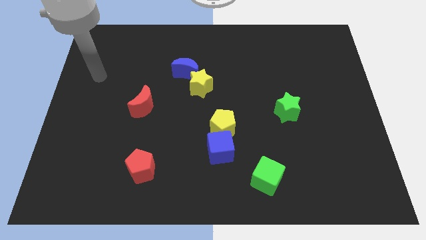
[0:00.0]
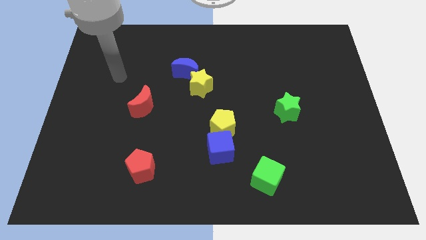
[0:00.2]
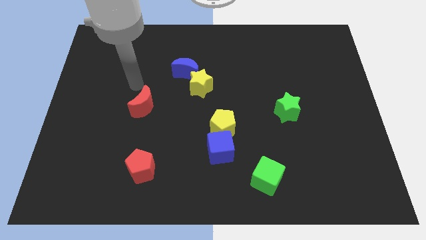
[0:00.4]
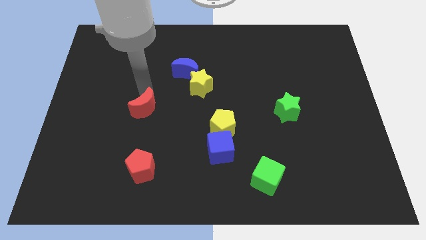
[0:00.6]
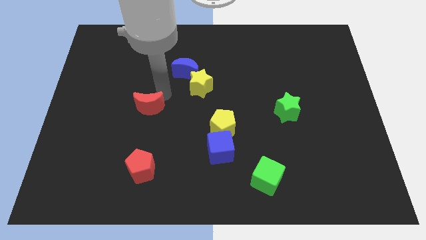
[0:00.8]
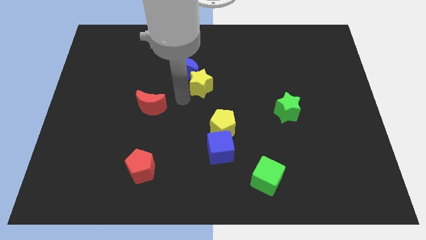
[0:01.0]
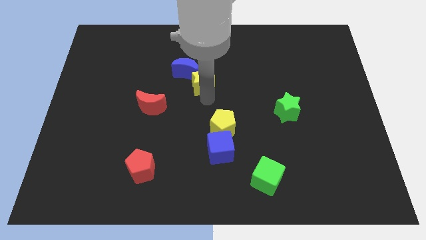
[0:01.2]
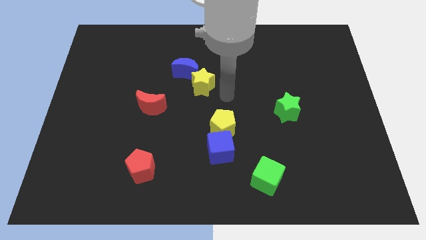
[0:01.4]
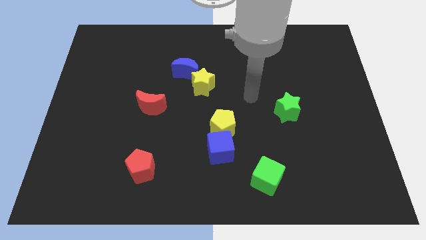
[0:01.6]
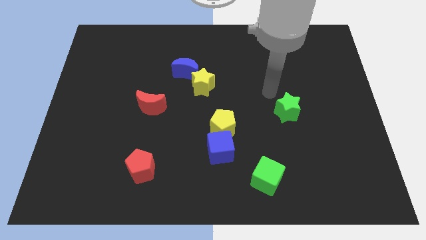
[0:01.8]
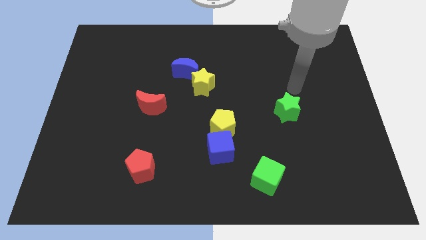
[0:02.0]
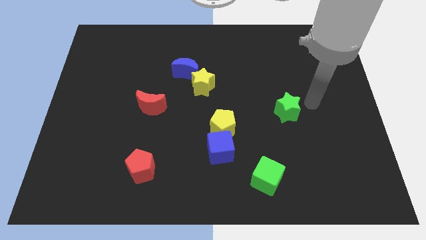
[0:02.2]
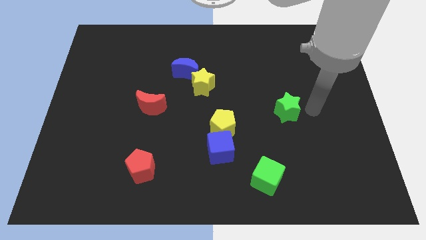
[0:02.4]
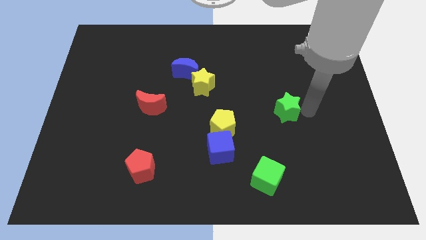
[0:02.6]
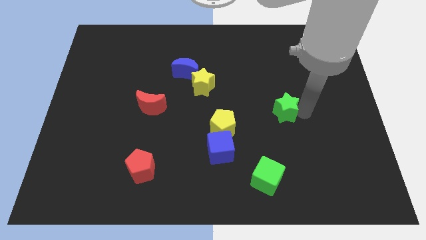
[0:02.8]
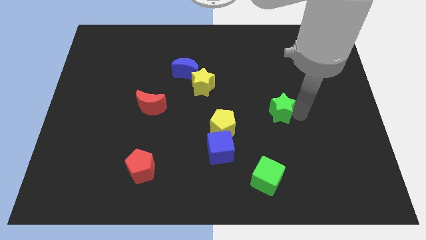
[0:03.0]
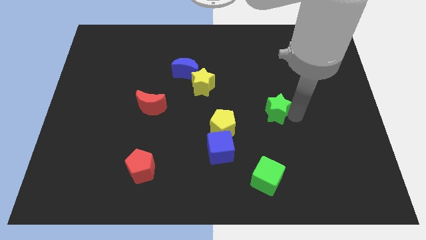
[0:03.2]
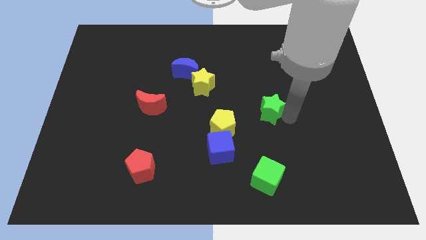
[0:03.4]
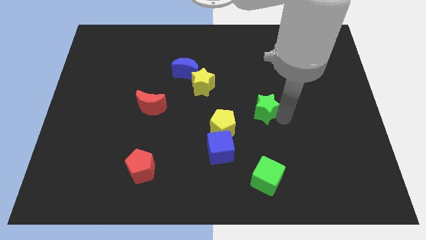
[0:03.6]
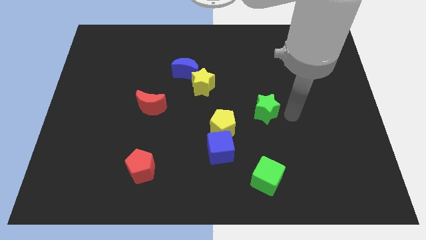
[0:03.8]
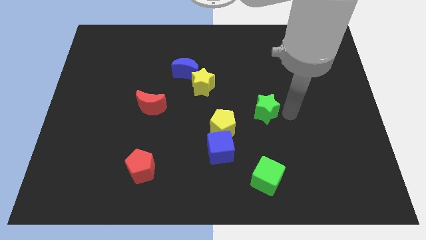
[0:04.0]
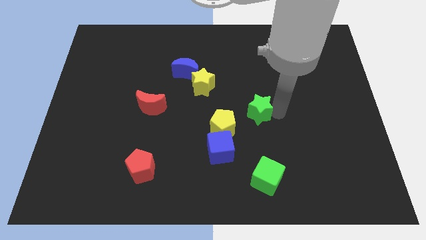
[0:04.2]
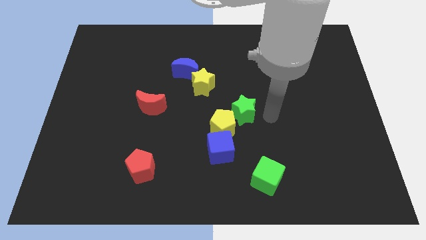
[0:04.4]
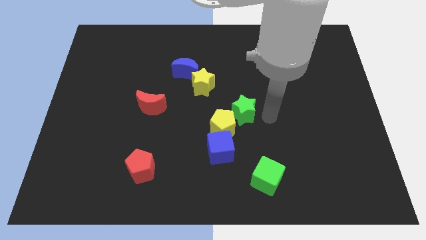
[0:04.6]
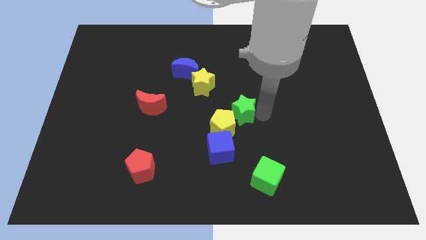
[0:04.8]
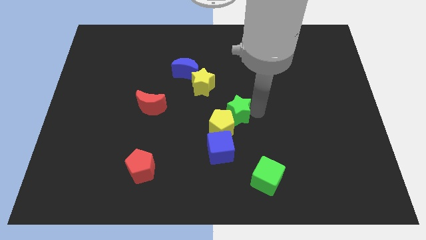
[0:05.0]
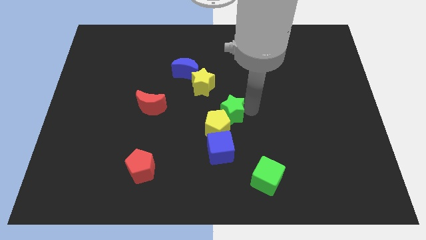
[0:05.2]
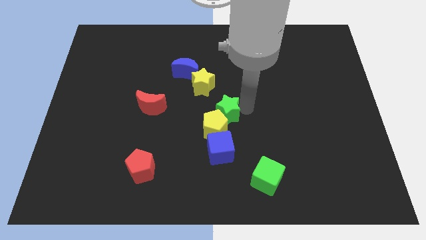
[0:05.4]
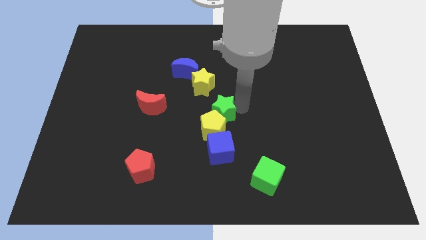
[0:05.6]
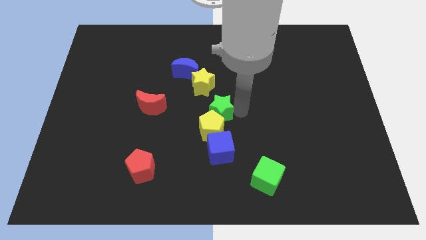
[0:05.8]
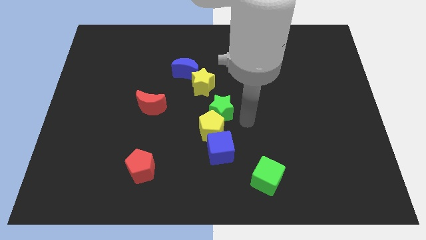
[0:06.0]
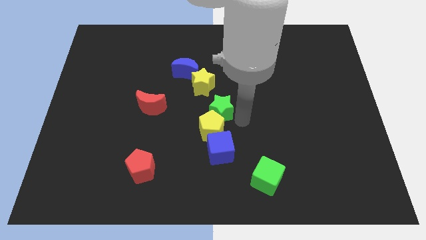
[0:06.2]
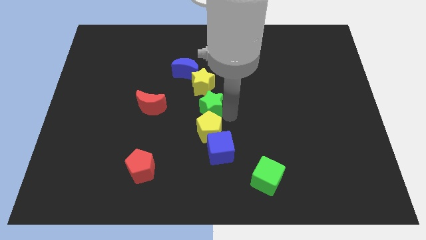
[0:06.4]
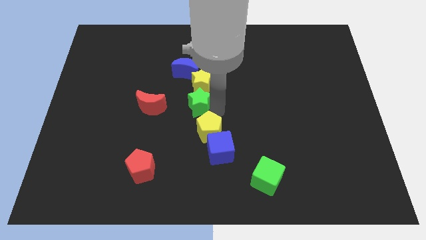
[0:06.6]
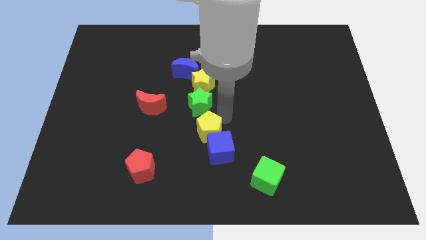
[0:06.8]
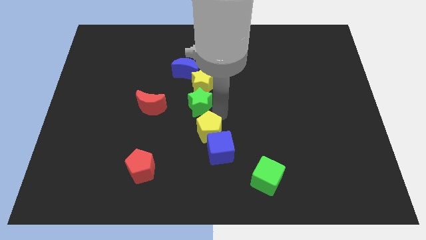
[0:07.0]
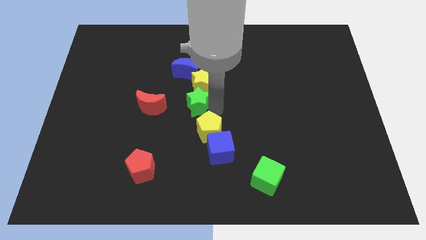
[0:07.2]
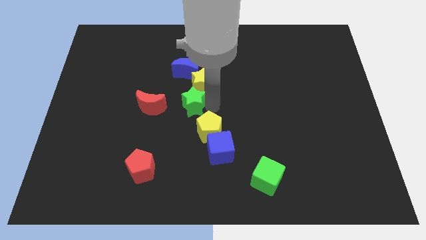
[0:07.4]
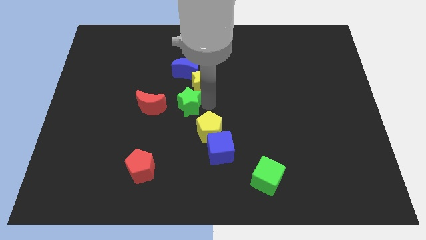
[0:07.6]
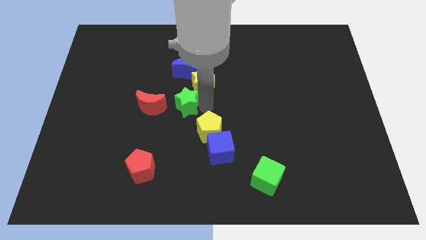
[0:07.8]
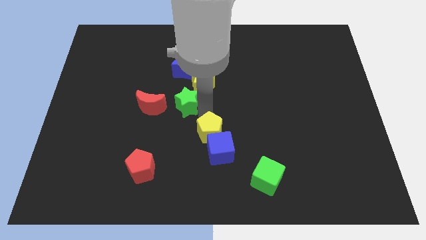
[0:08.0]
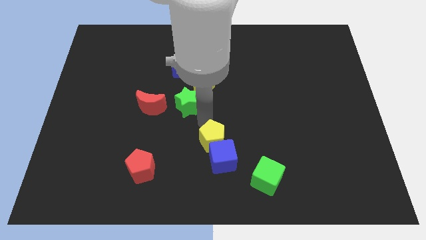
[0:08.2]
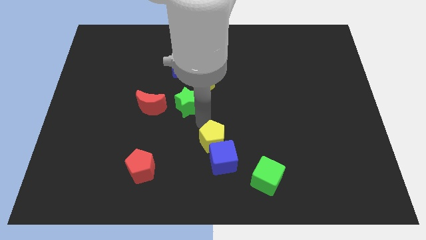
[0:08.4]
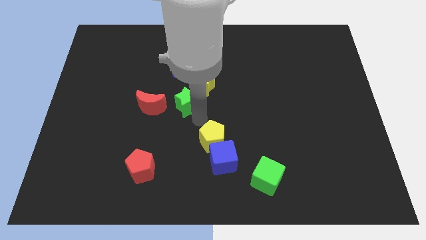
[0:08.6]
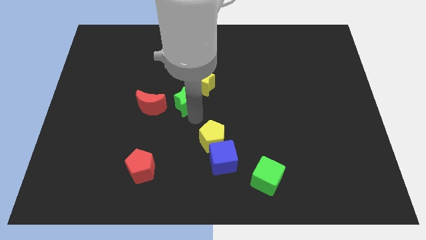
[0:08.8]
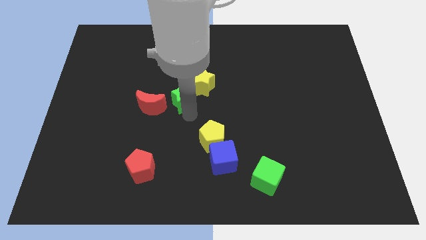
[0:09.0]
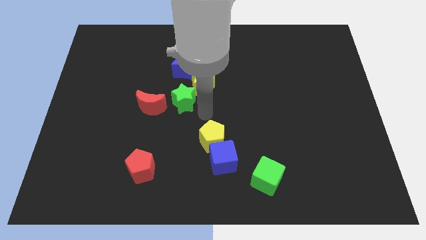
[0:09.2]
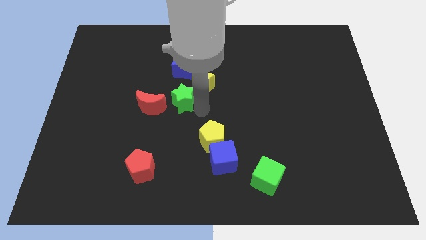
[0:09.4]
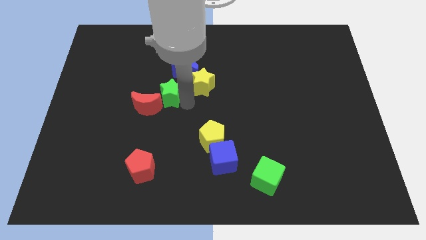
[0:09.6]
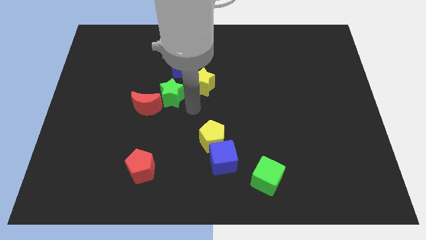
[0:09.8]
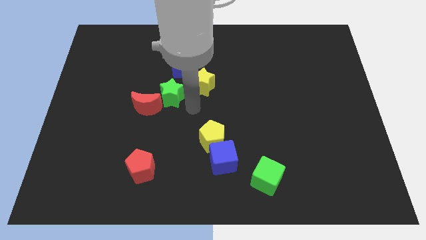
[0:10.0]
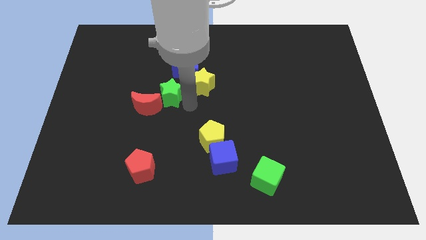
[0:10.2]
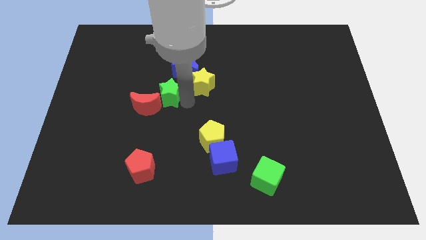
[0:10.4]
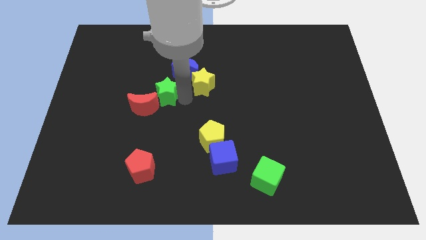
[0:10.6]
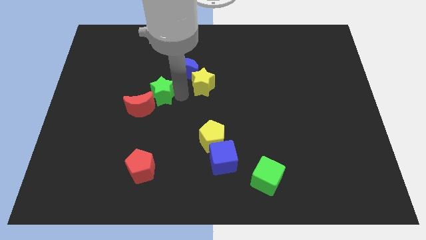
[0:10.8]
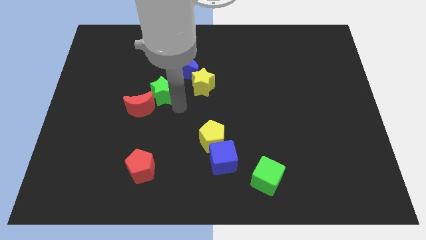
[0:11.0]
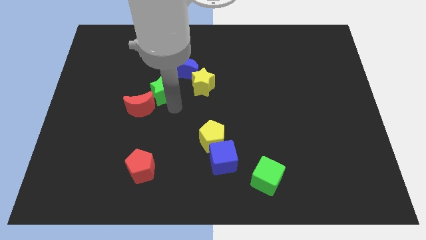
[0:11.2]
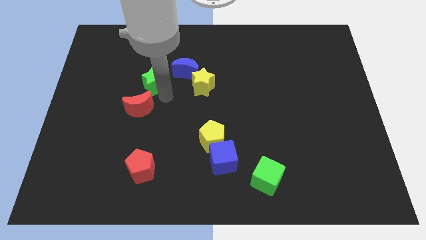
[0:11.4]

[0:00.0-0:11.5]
slide the green star to the left of the blue moon

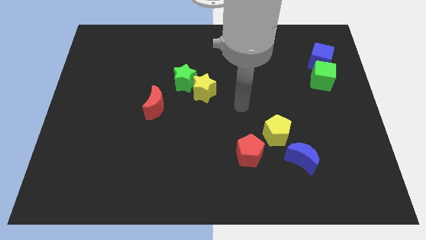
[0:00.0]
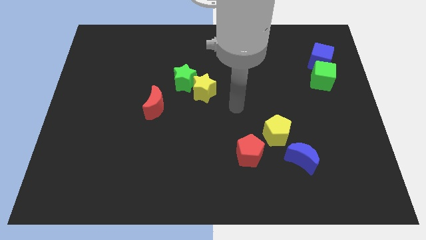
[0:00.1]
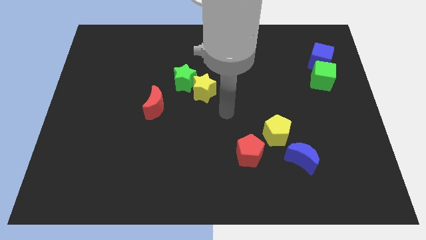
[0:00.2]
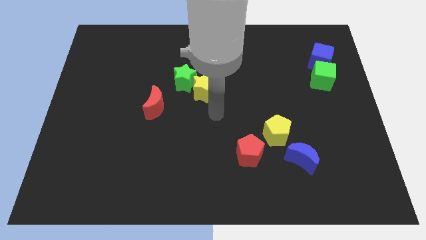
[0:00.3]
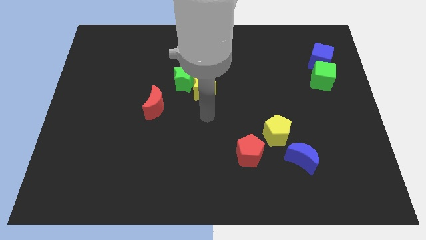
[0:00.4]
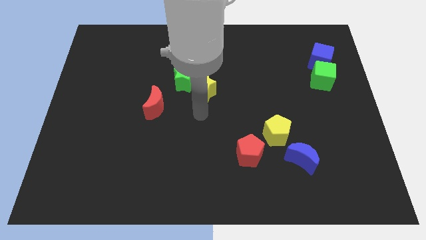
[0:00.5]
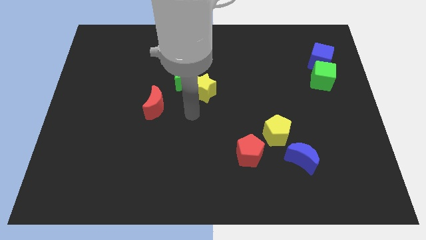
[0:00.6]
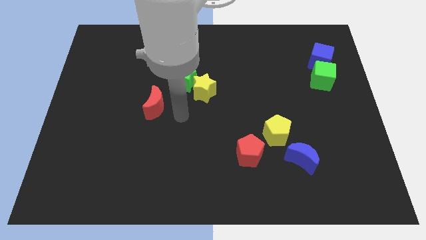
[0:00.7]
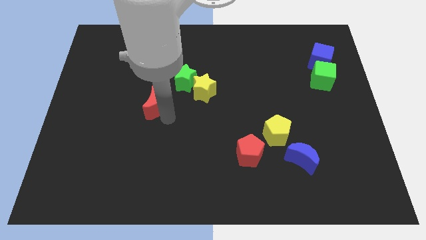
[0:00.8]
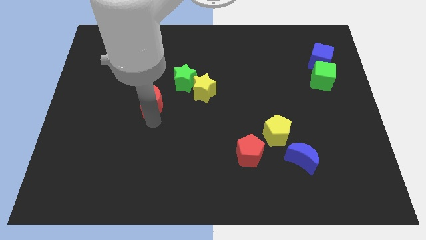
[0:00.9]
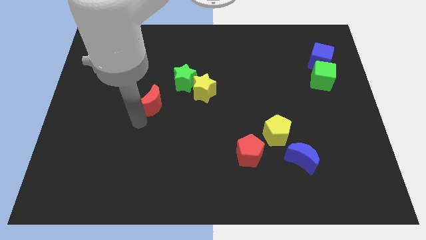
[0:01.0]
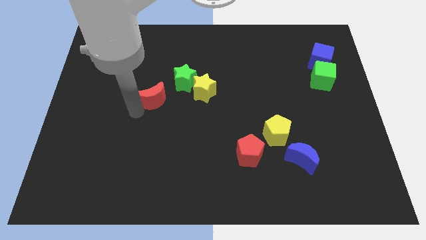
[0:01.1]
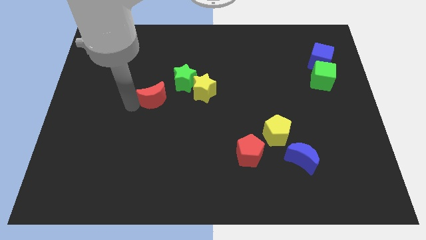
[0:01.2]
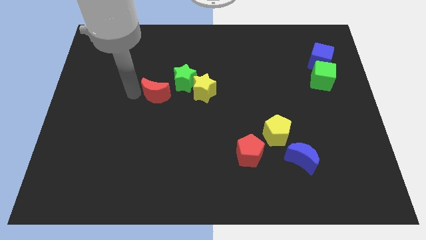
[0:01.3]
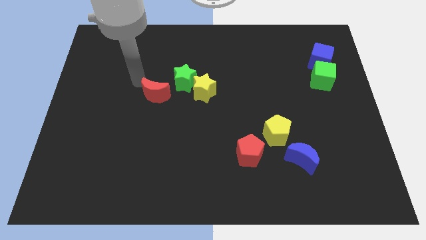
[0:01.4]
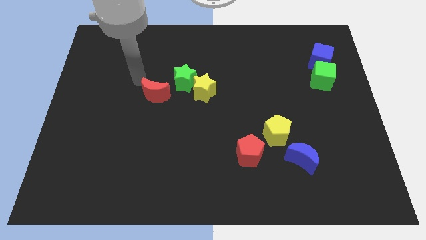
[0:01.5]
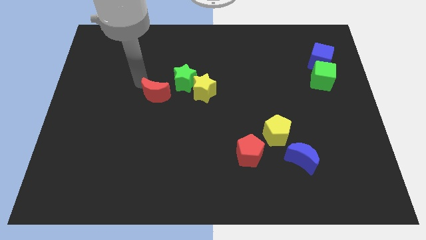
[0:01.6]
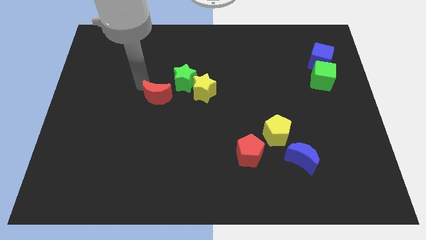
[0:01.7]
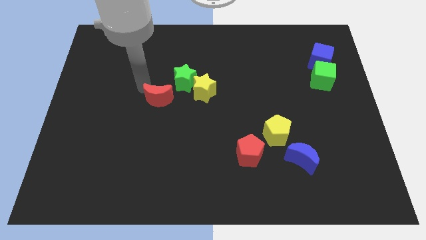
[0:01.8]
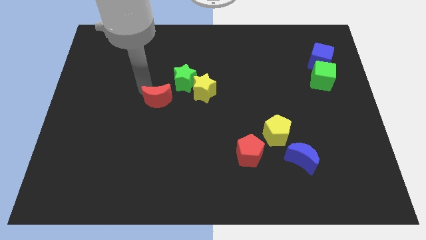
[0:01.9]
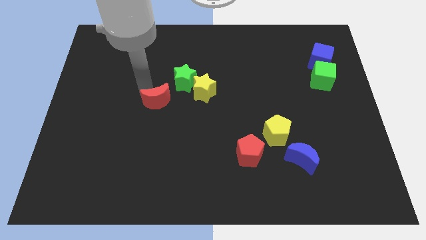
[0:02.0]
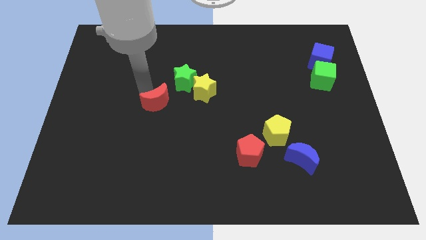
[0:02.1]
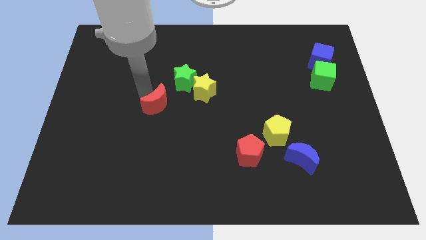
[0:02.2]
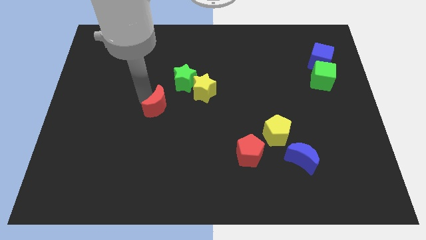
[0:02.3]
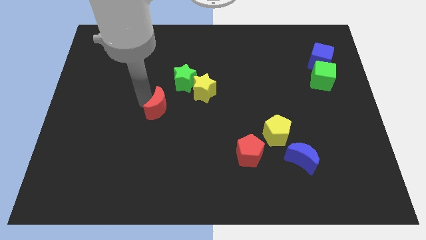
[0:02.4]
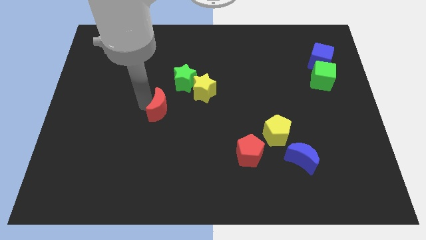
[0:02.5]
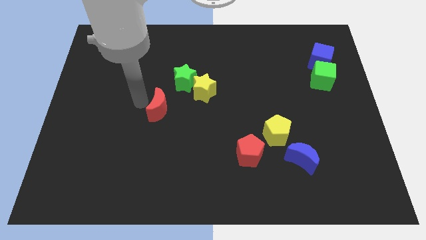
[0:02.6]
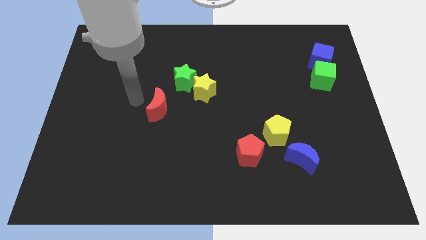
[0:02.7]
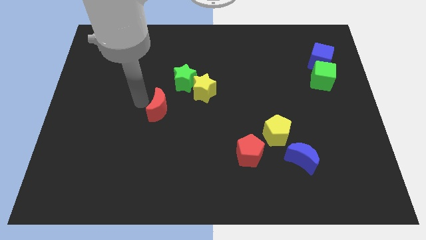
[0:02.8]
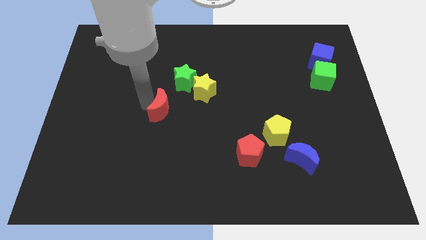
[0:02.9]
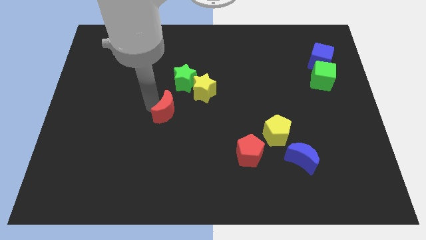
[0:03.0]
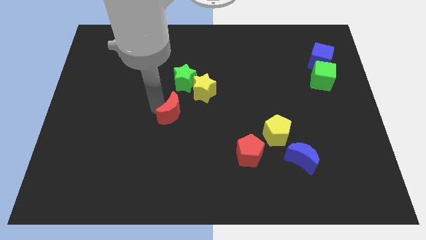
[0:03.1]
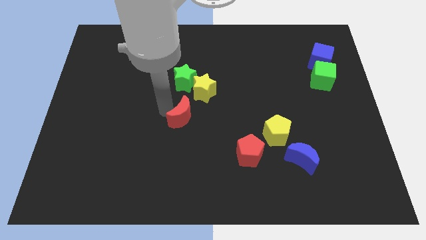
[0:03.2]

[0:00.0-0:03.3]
put the red moon to the bottom side of the yellow star
